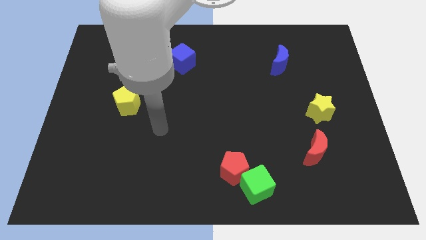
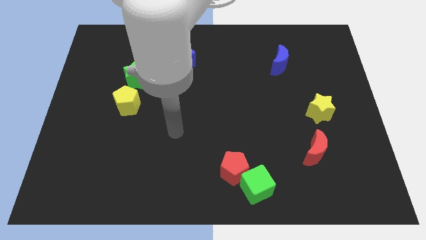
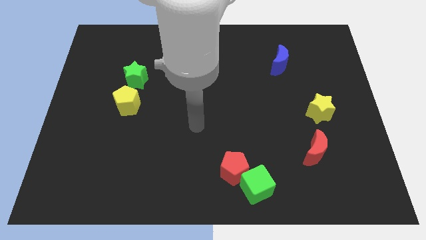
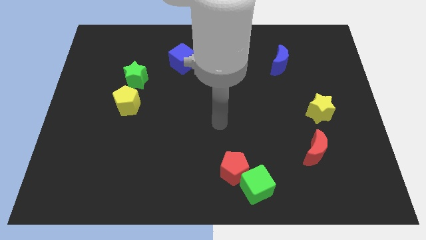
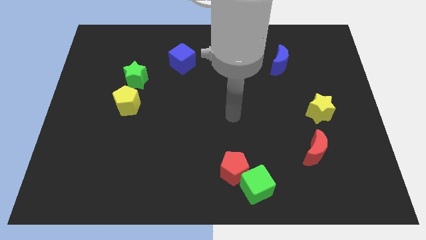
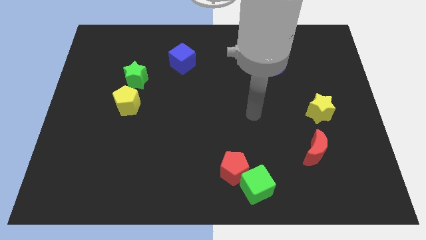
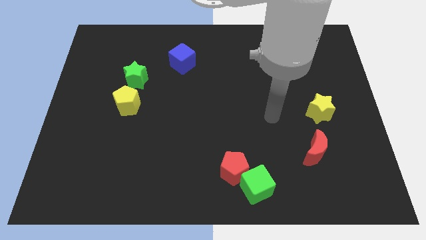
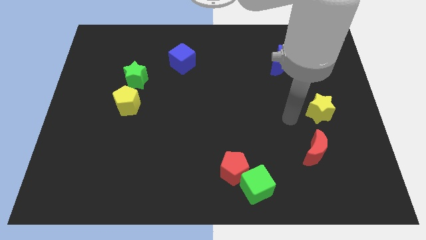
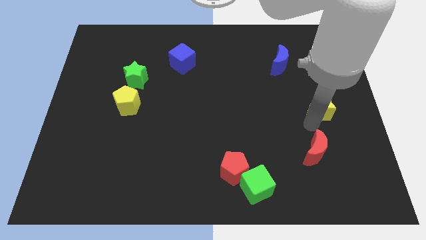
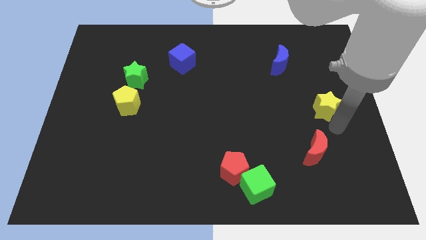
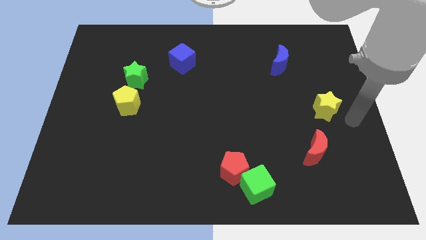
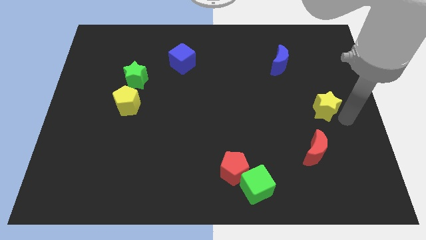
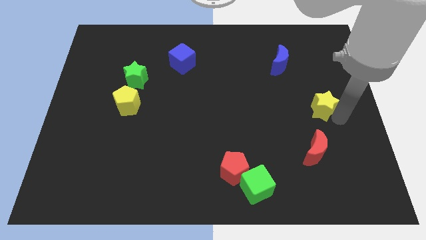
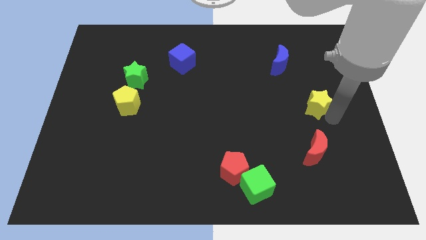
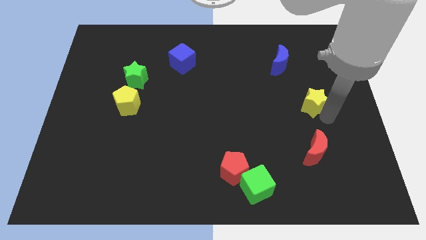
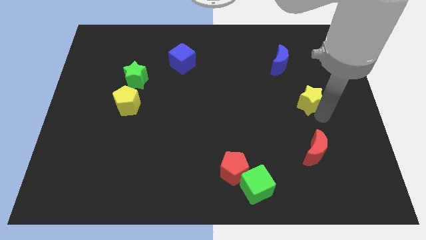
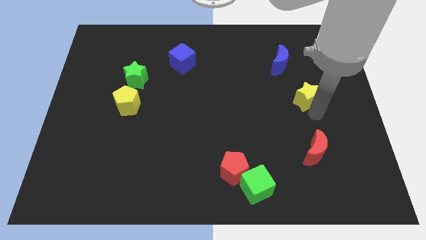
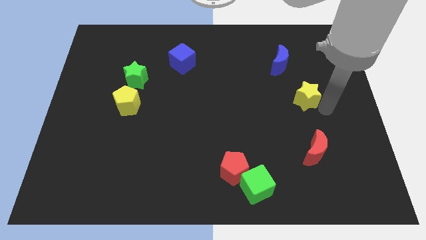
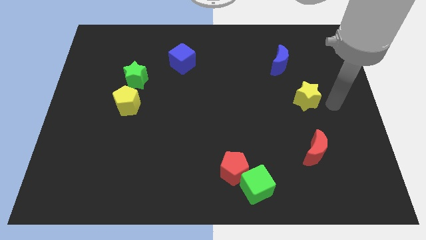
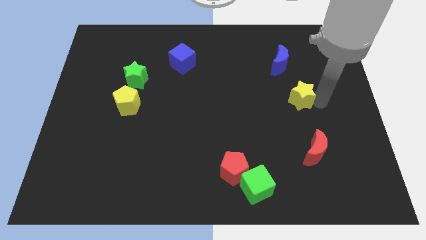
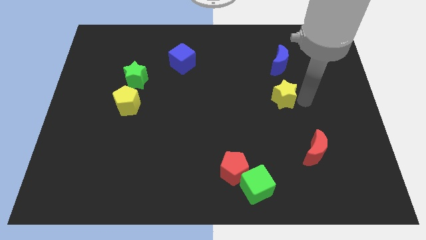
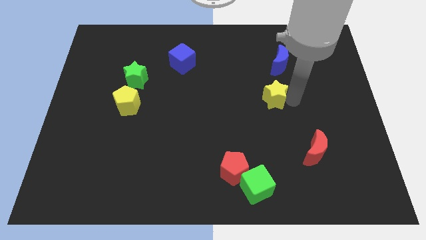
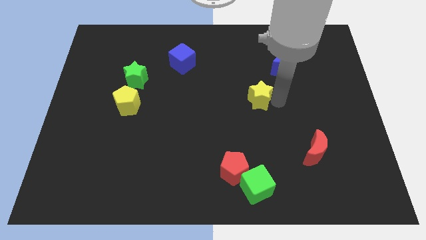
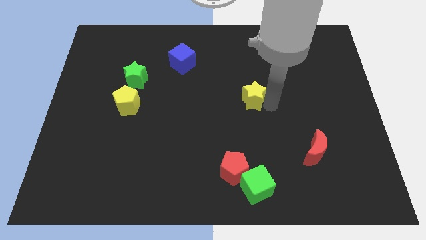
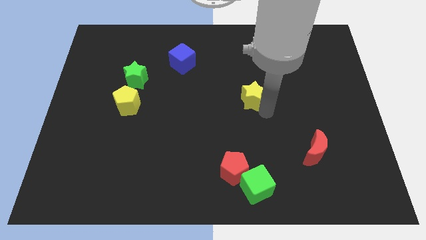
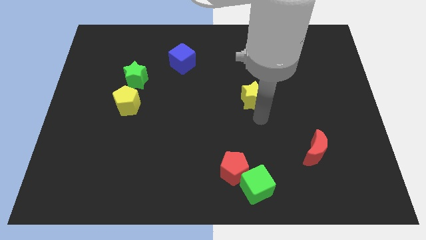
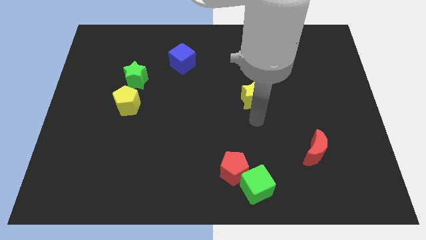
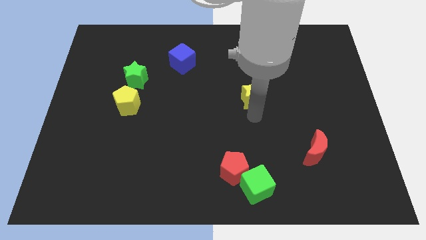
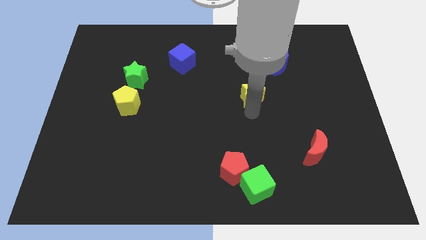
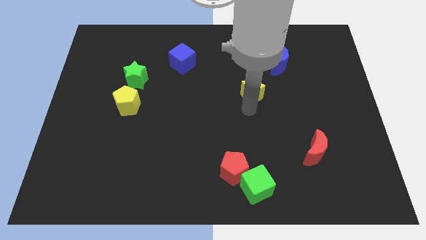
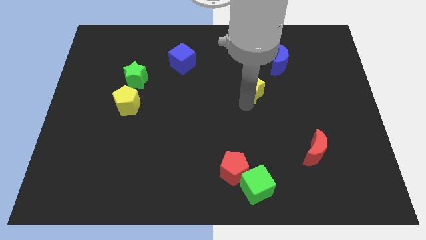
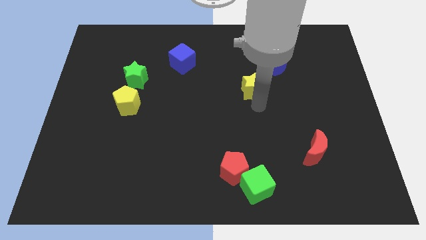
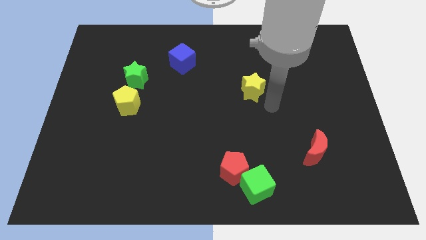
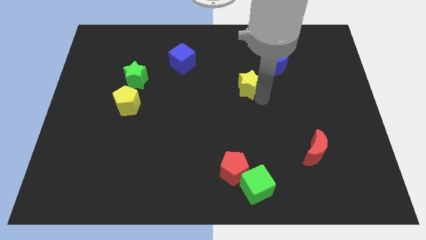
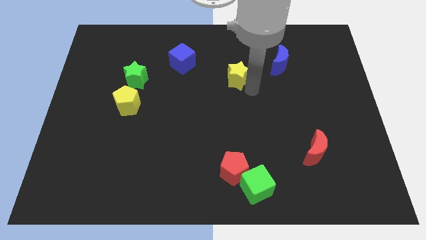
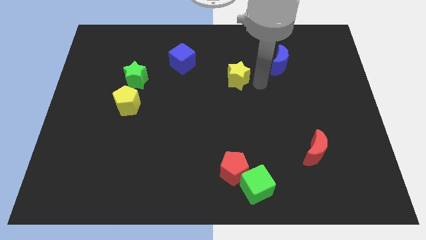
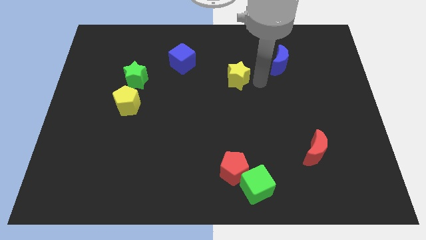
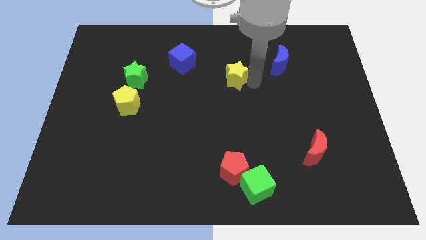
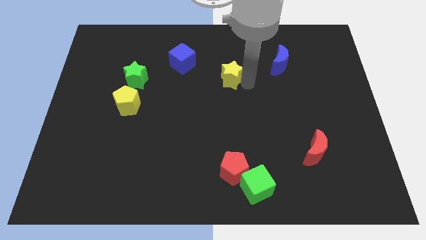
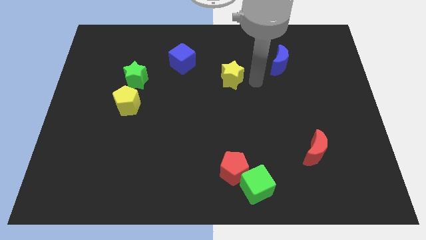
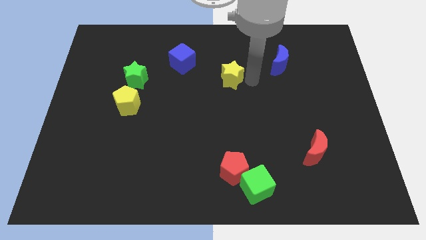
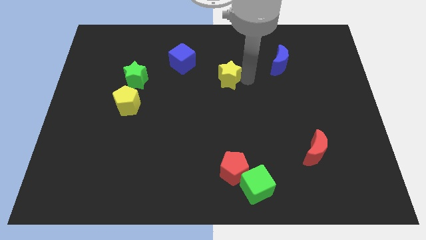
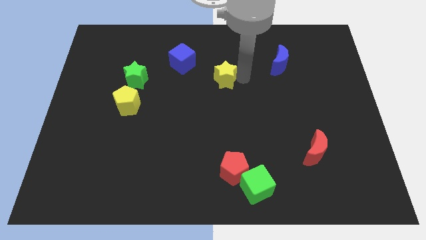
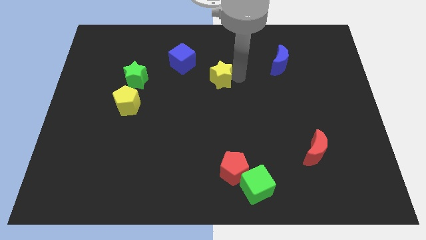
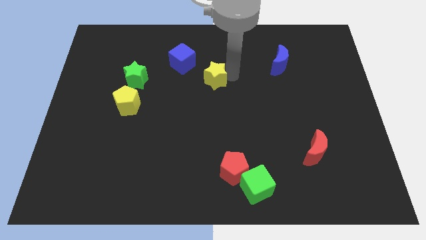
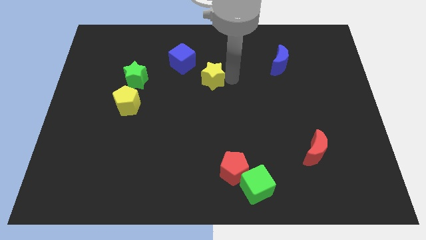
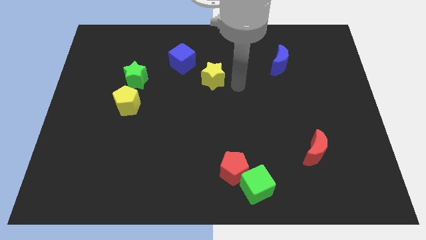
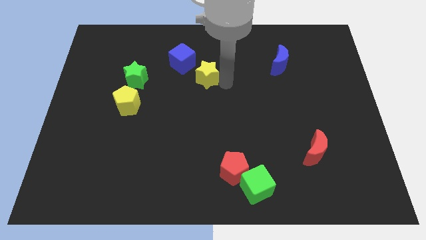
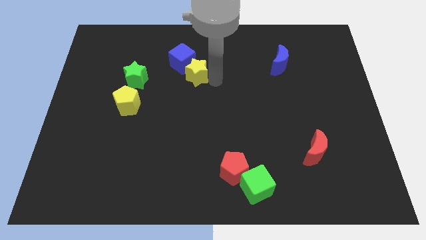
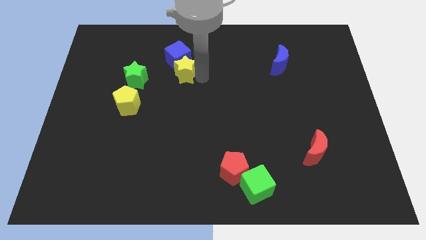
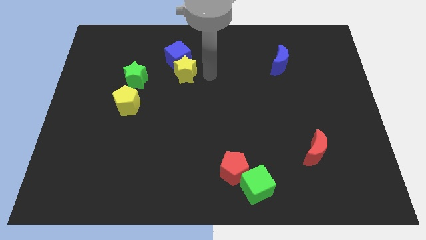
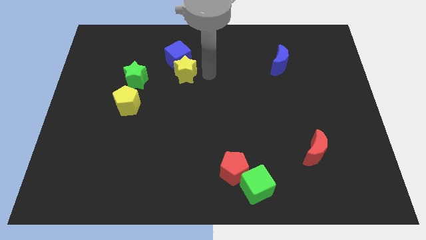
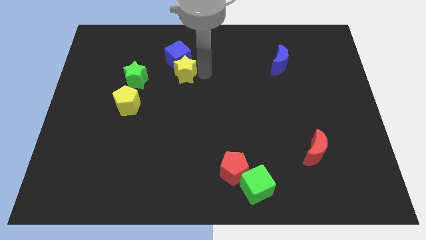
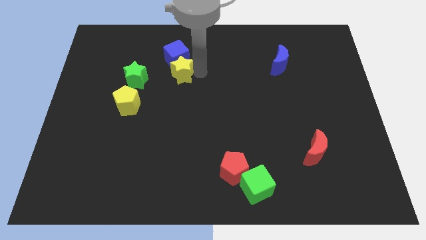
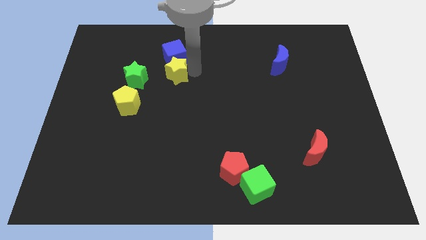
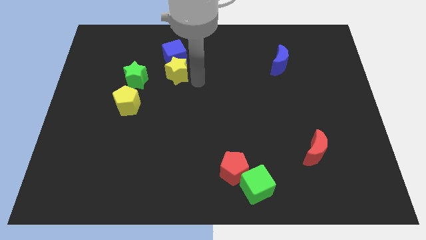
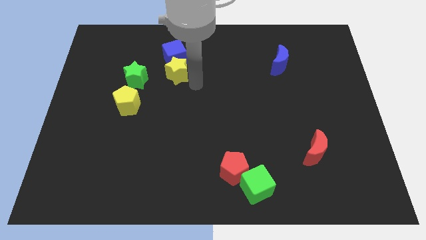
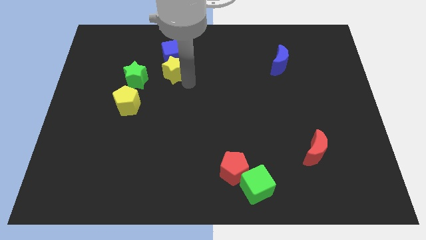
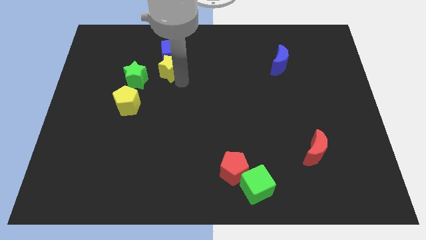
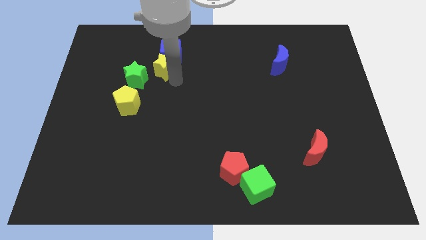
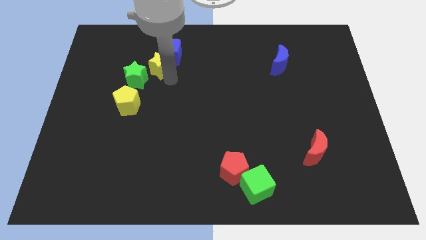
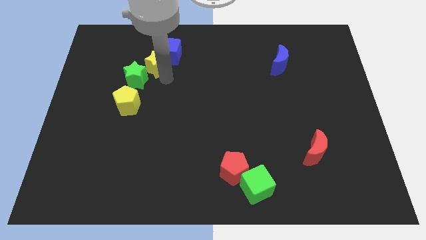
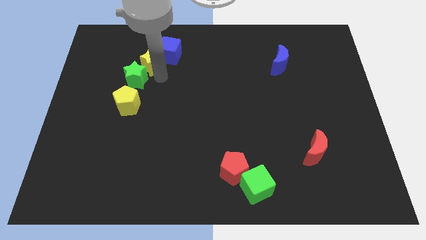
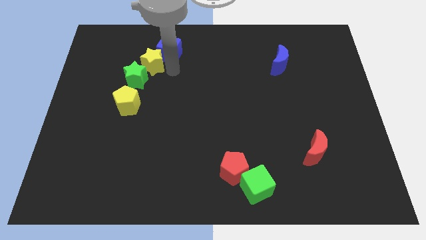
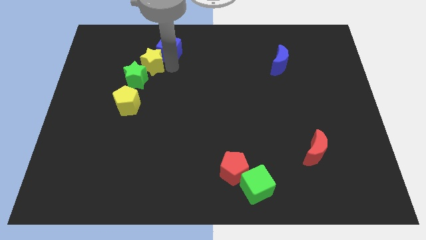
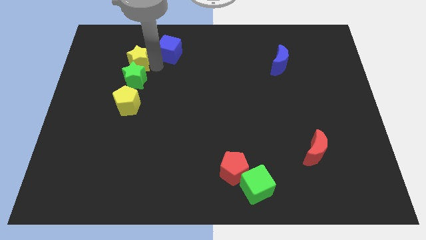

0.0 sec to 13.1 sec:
push the yellow star to the top left side of the green star

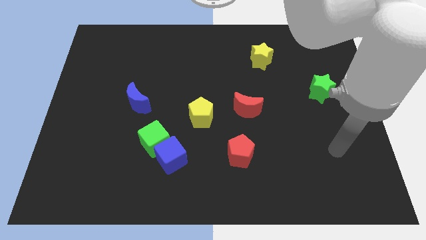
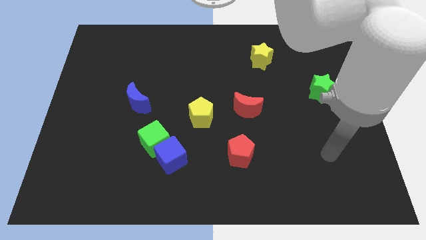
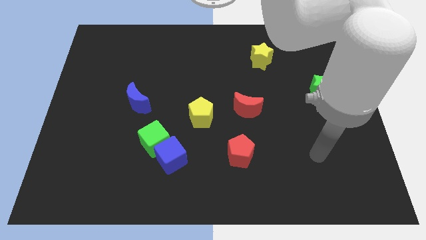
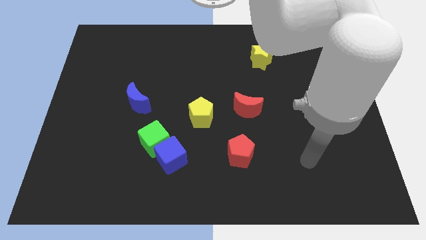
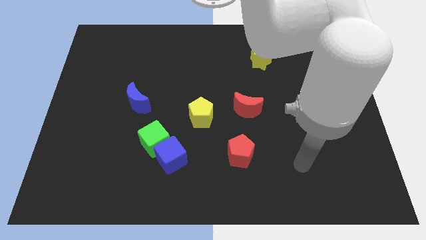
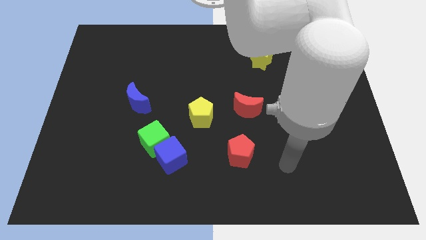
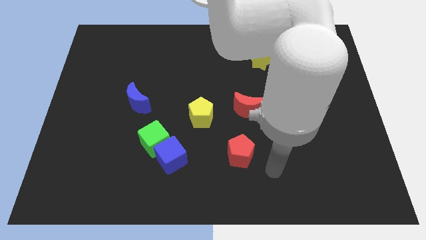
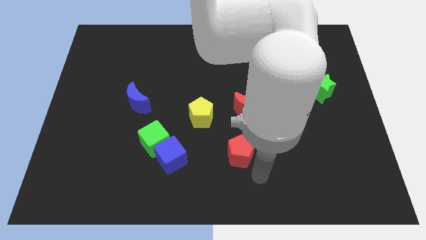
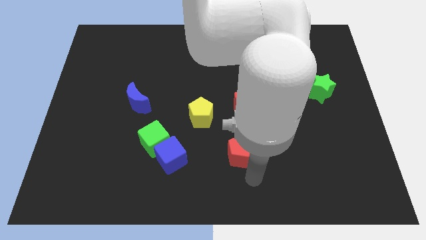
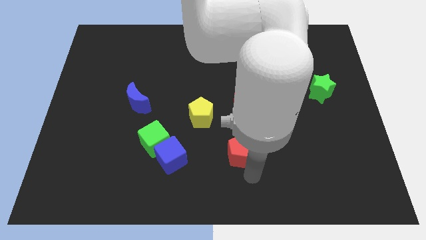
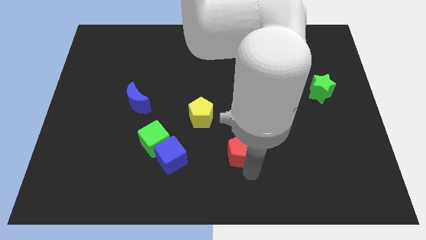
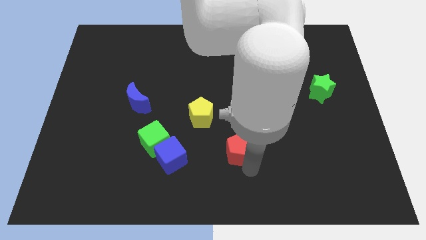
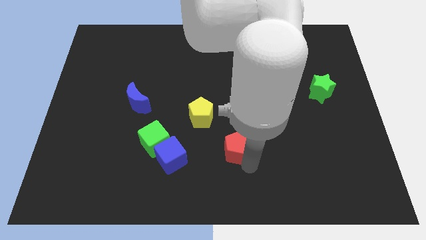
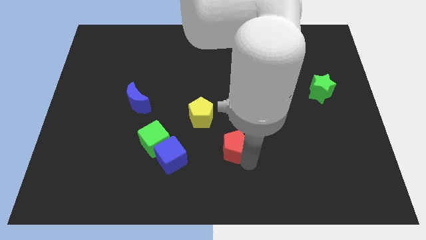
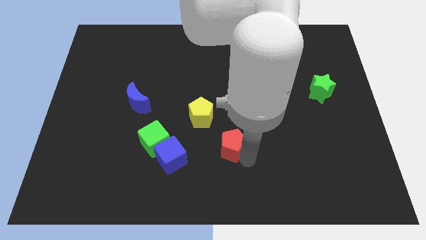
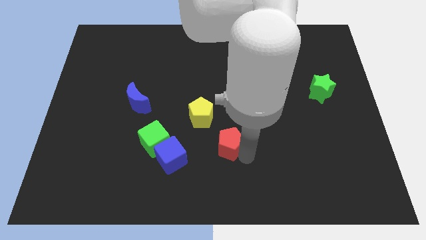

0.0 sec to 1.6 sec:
move the red pentagon to the bottom left side of the red moon

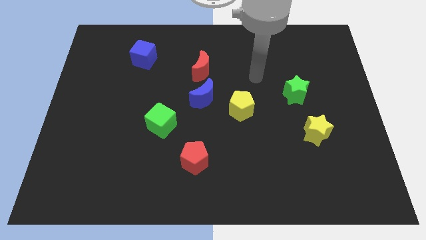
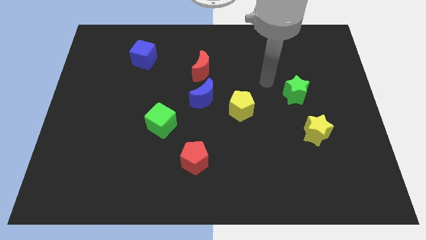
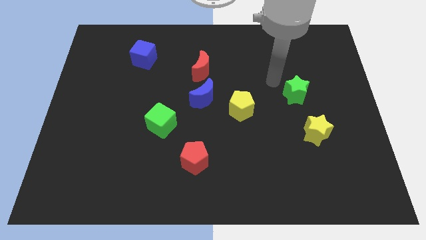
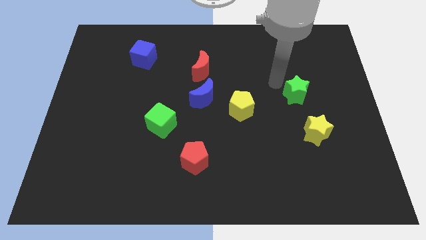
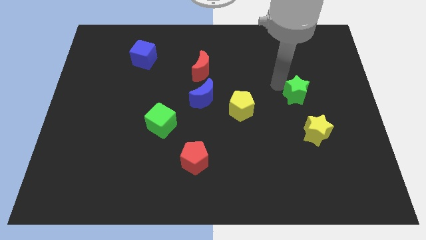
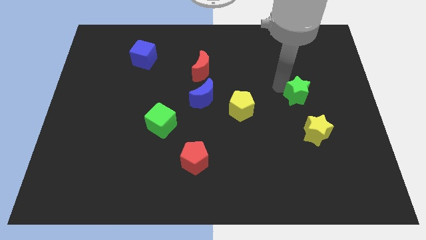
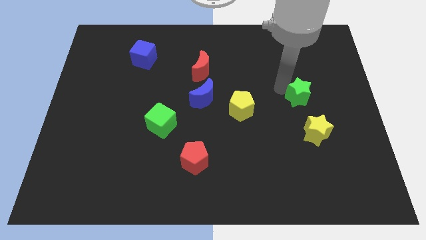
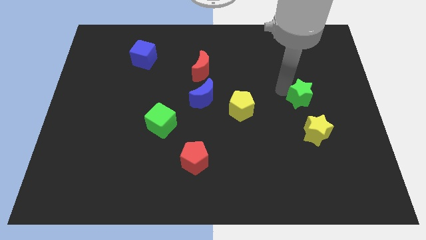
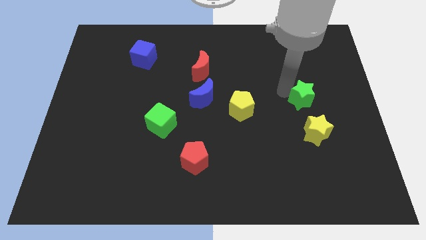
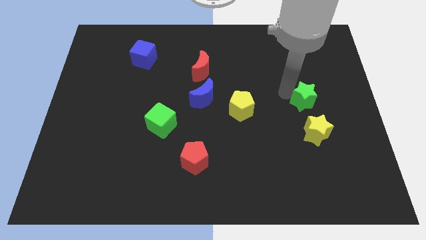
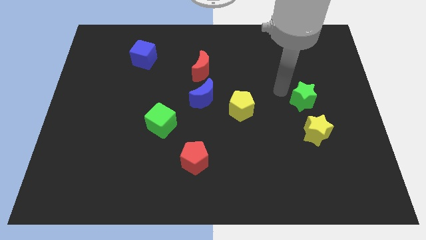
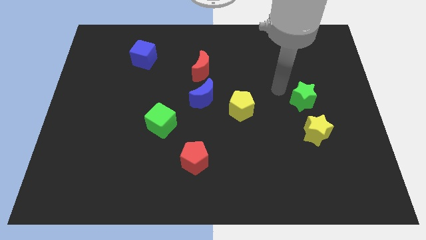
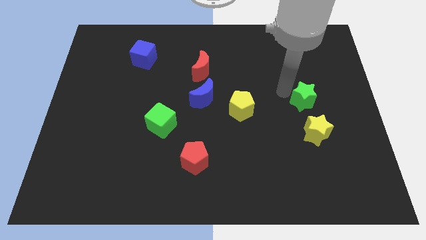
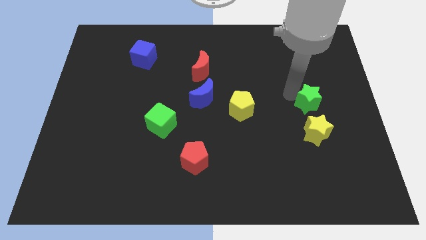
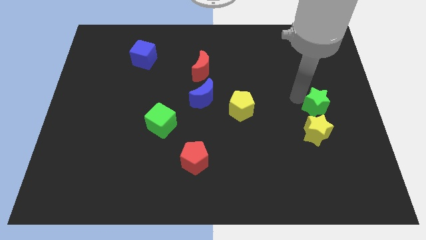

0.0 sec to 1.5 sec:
move the green star diagonally up and to the right of the yellow star
